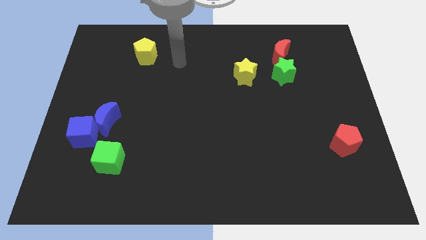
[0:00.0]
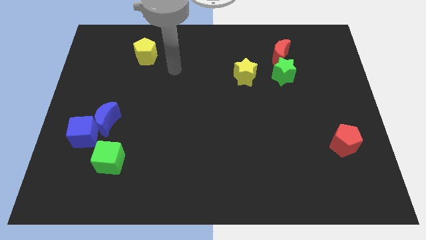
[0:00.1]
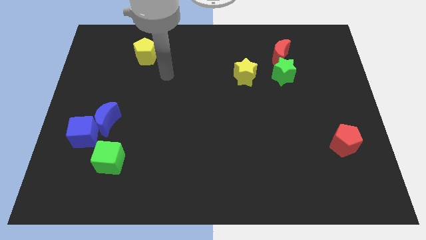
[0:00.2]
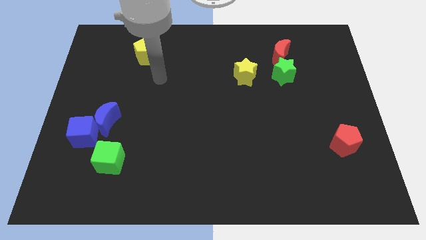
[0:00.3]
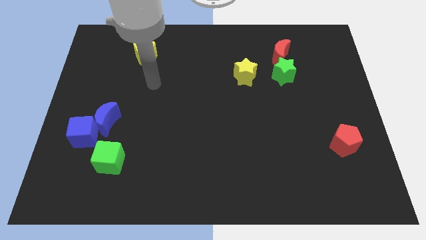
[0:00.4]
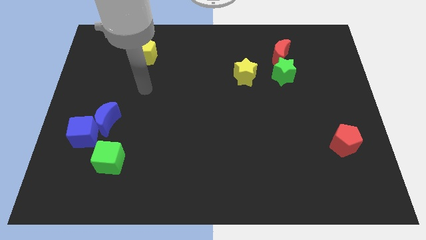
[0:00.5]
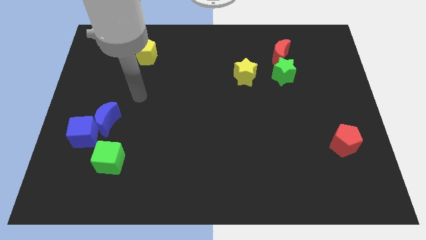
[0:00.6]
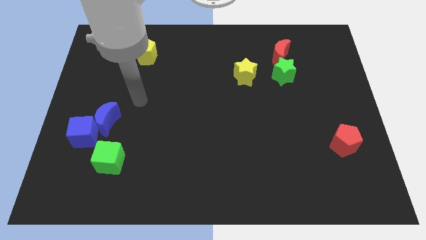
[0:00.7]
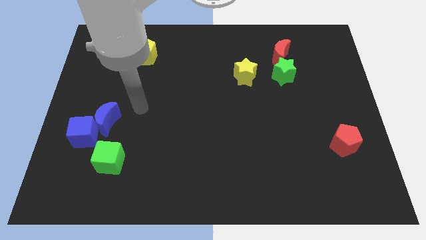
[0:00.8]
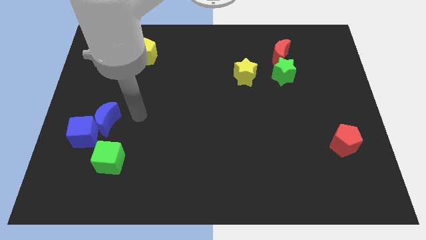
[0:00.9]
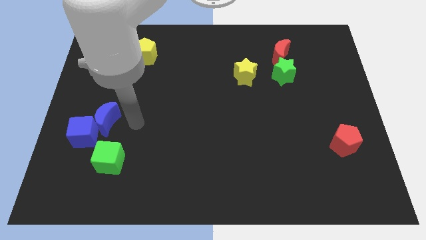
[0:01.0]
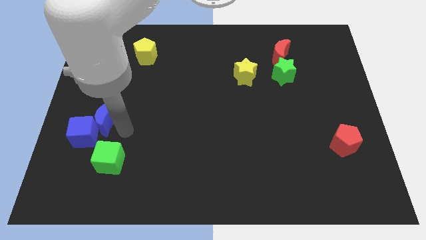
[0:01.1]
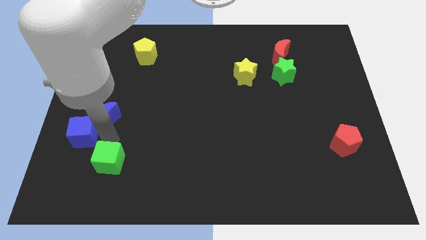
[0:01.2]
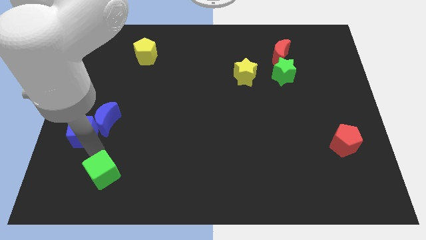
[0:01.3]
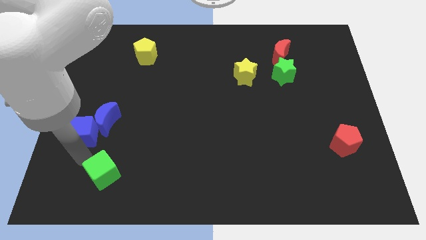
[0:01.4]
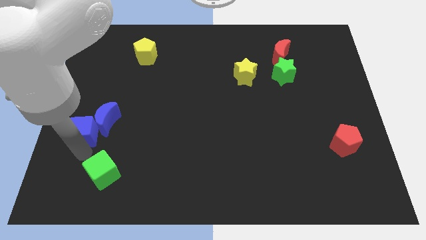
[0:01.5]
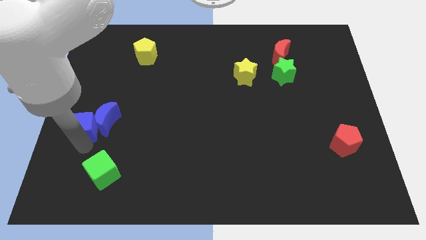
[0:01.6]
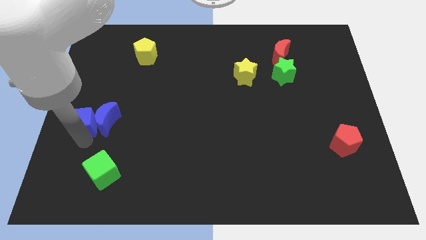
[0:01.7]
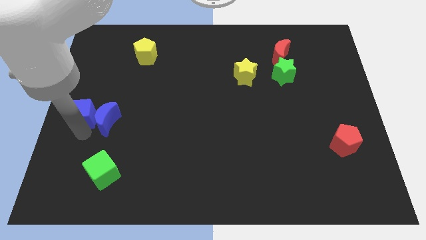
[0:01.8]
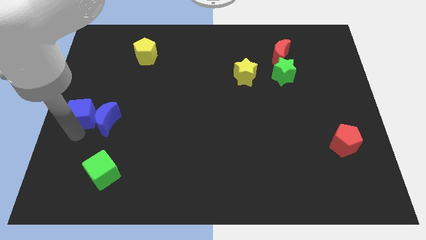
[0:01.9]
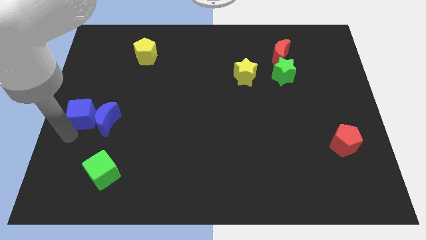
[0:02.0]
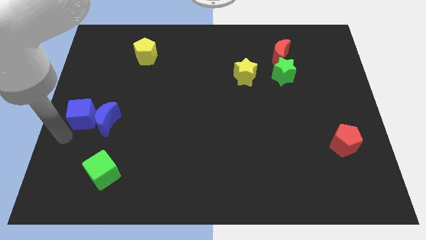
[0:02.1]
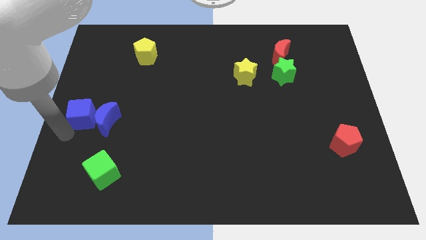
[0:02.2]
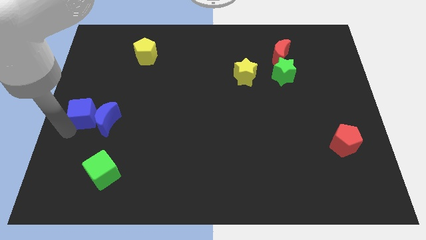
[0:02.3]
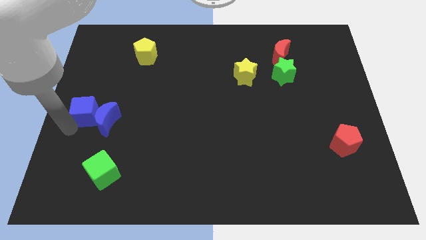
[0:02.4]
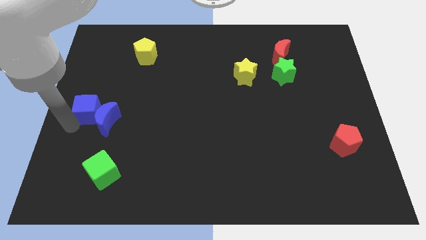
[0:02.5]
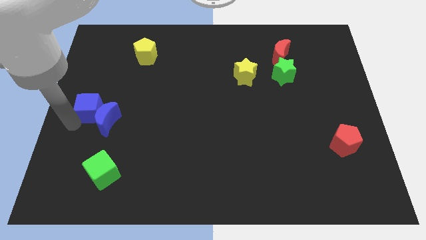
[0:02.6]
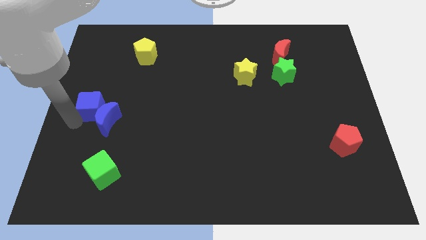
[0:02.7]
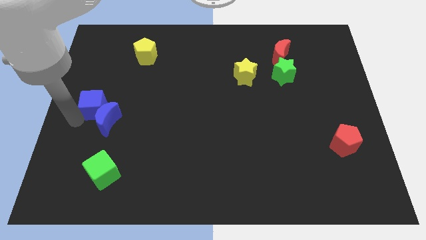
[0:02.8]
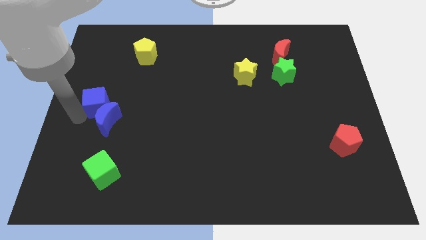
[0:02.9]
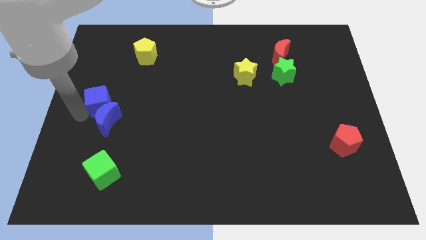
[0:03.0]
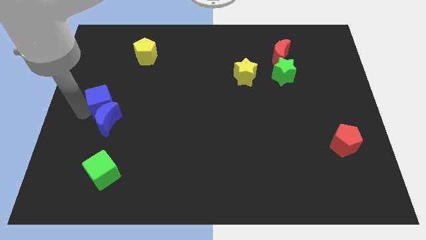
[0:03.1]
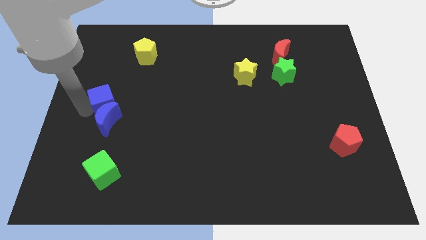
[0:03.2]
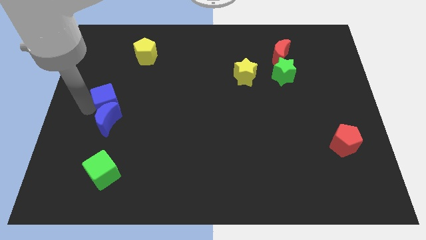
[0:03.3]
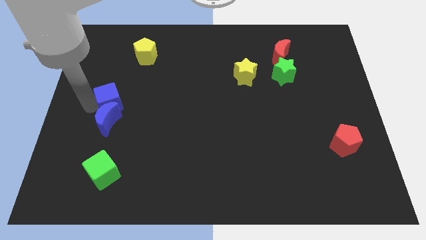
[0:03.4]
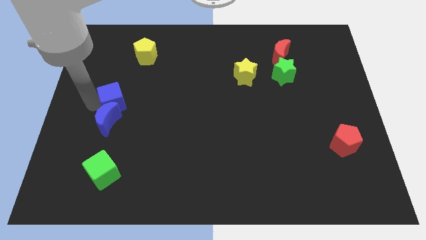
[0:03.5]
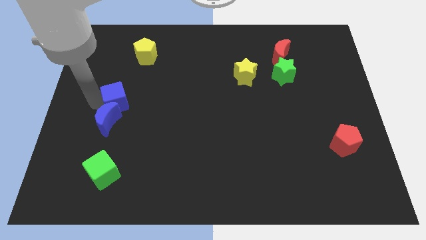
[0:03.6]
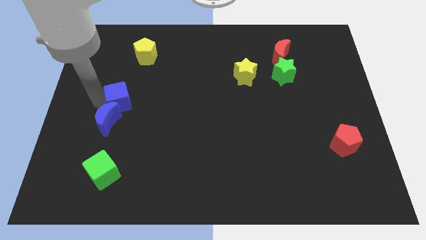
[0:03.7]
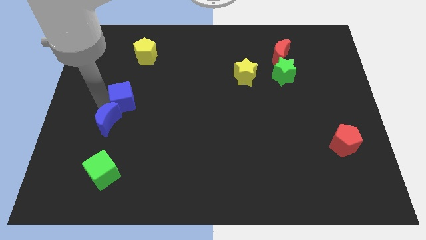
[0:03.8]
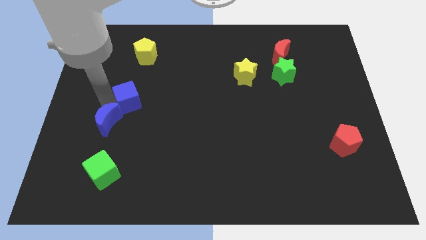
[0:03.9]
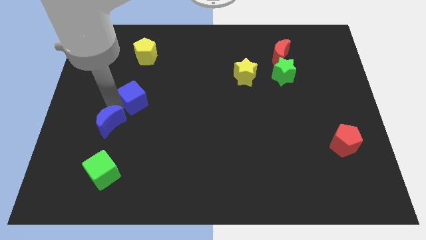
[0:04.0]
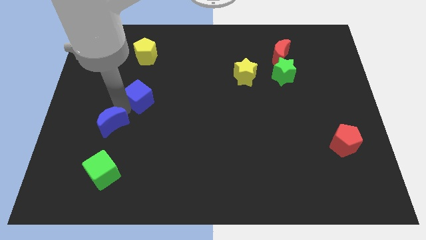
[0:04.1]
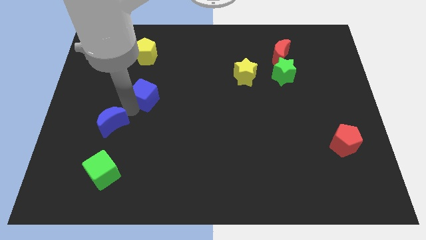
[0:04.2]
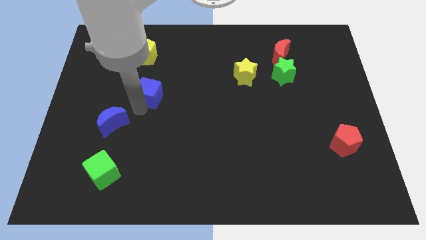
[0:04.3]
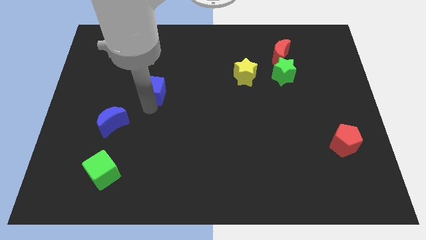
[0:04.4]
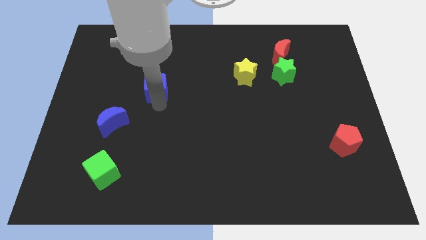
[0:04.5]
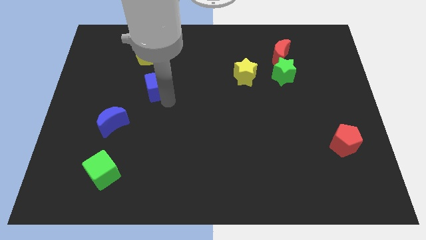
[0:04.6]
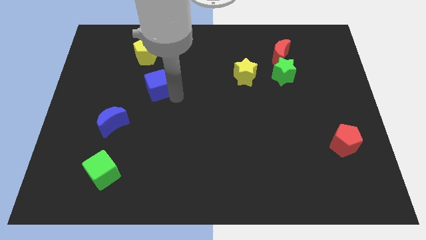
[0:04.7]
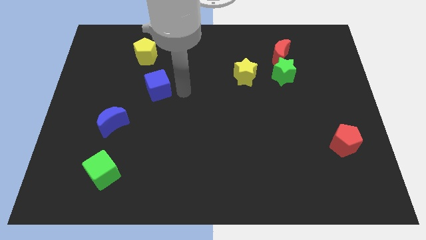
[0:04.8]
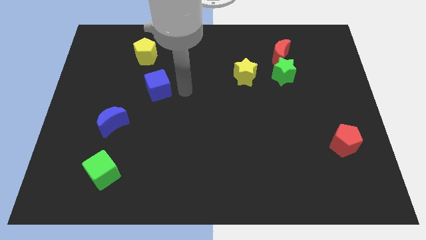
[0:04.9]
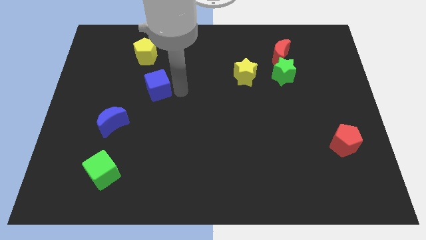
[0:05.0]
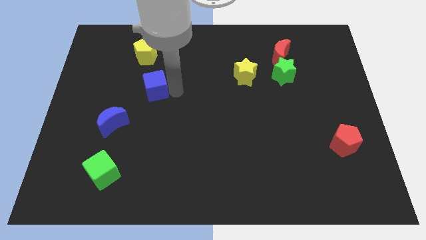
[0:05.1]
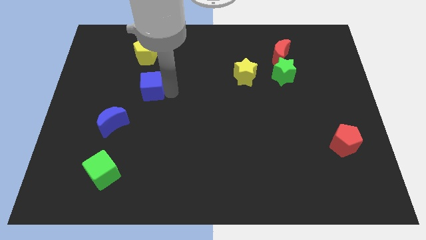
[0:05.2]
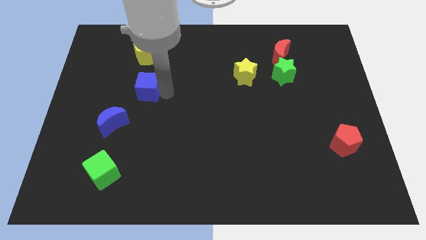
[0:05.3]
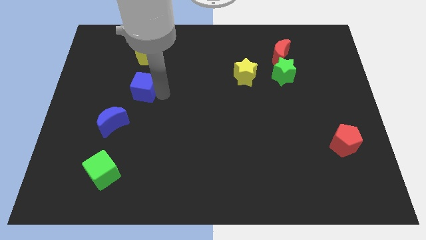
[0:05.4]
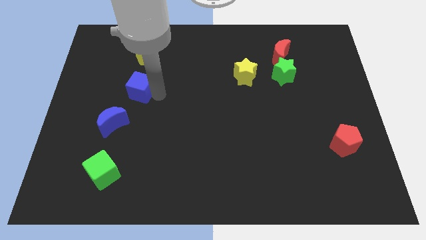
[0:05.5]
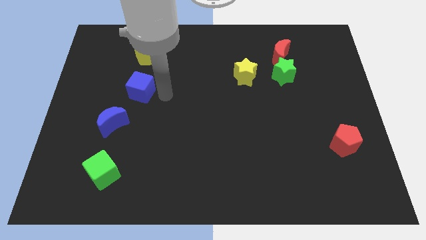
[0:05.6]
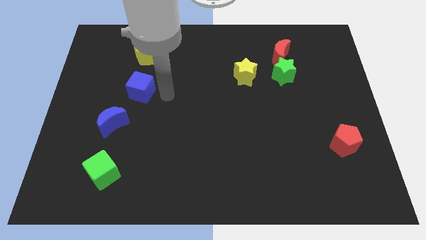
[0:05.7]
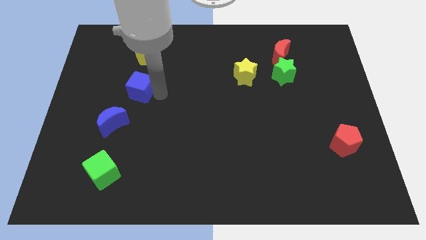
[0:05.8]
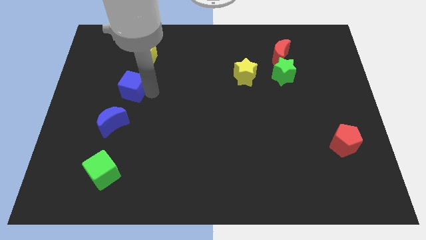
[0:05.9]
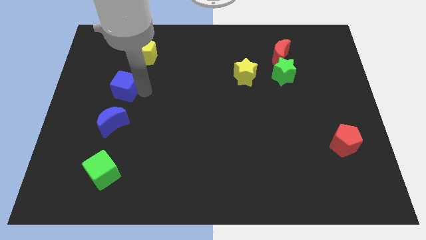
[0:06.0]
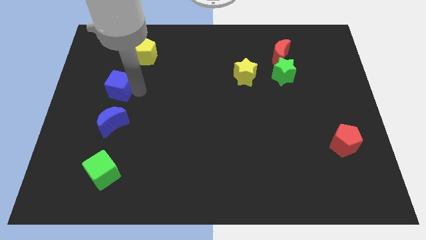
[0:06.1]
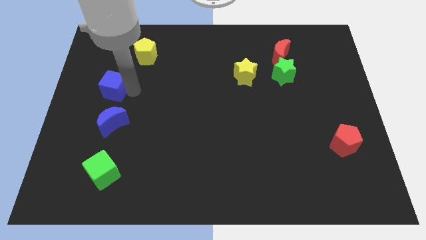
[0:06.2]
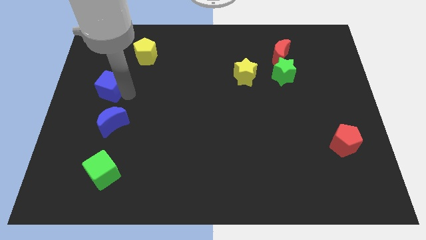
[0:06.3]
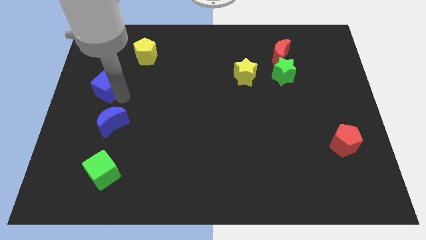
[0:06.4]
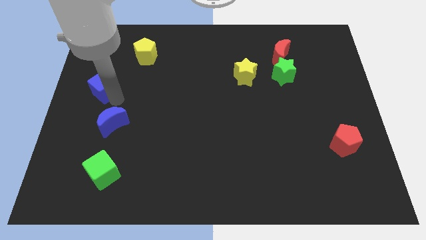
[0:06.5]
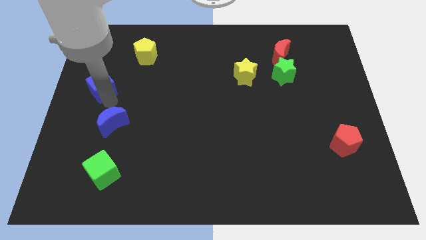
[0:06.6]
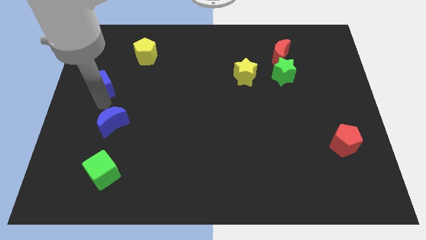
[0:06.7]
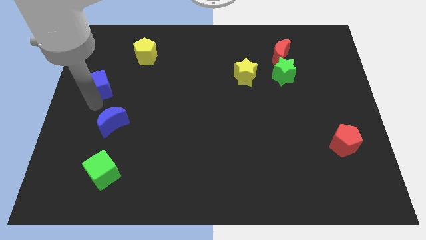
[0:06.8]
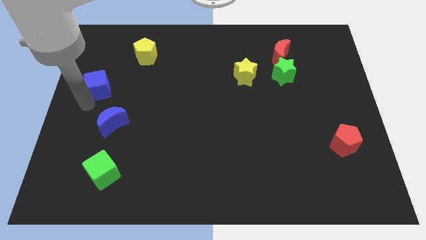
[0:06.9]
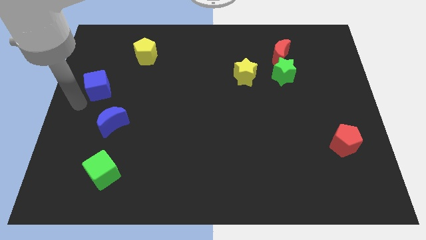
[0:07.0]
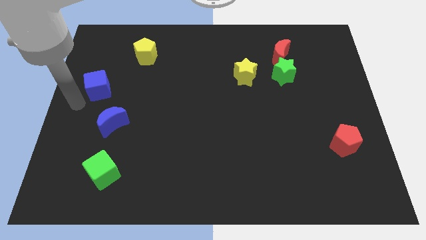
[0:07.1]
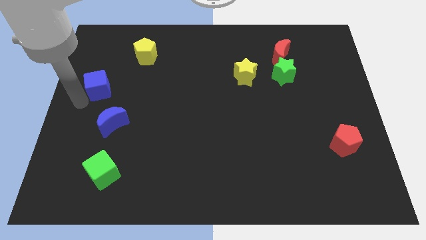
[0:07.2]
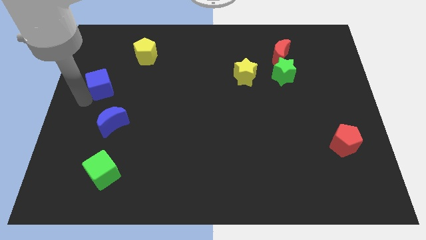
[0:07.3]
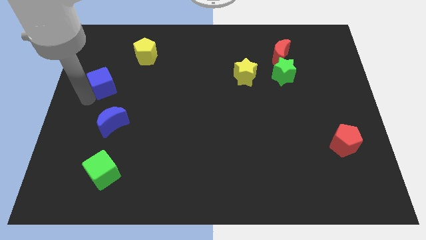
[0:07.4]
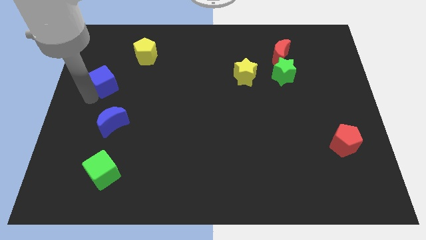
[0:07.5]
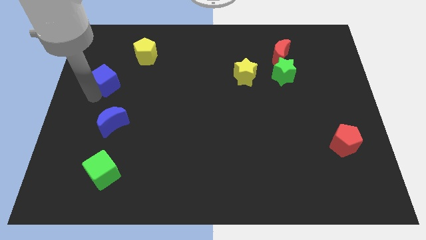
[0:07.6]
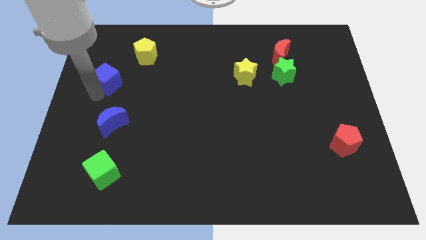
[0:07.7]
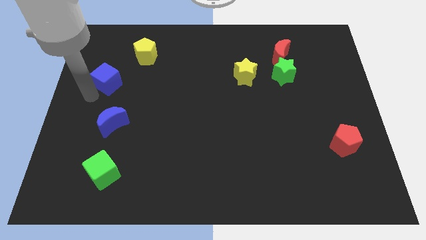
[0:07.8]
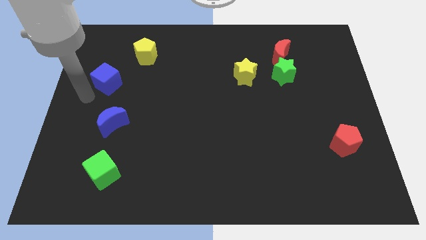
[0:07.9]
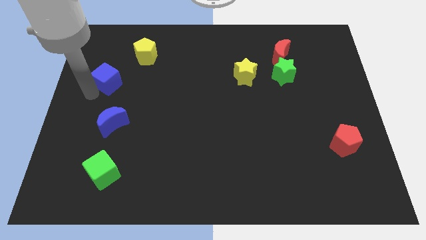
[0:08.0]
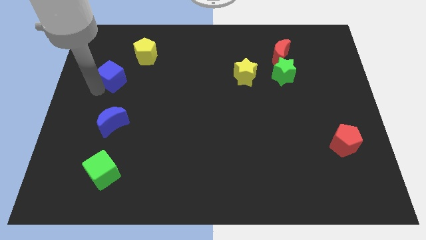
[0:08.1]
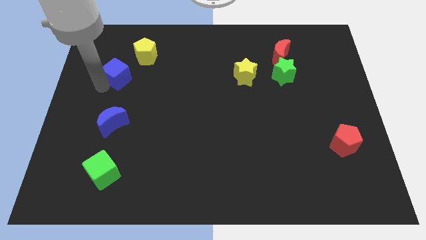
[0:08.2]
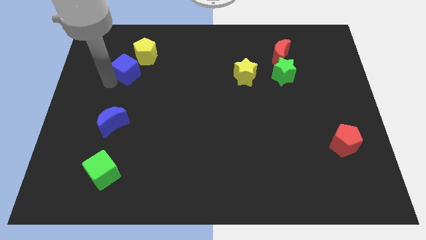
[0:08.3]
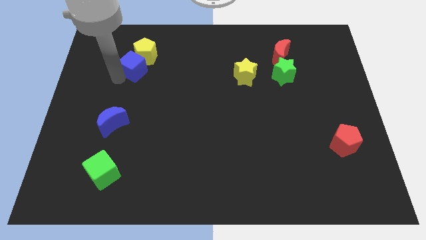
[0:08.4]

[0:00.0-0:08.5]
push the blue cube to the yellow pentagon
